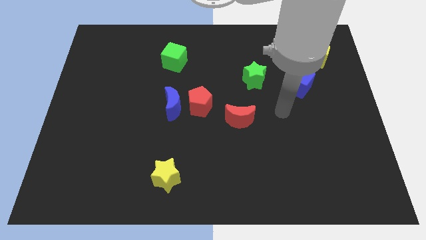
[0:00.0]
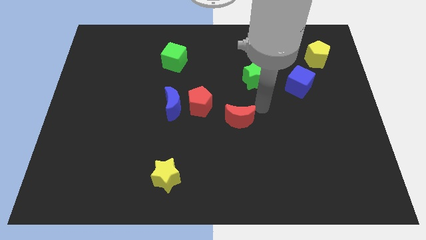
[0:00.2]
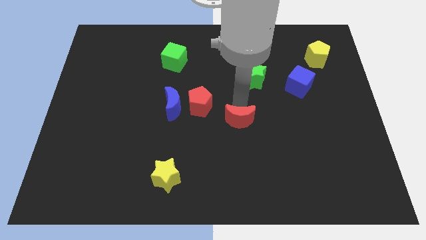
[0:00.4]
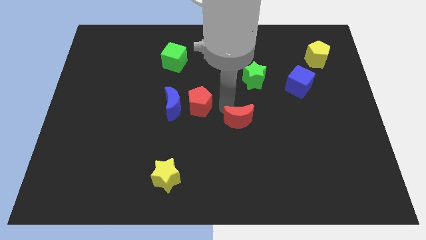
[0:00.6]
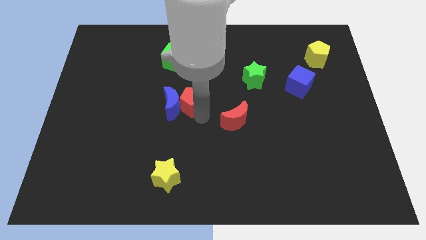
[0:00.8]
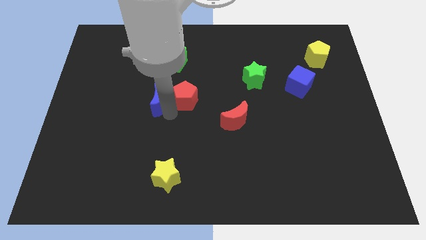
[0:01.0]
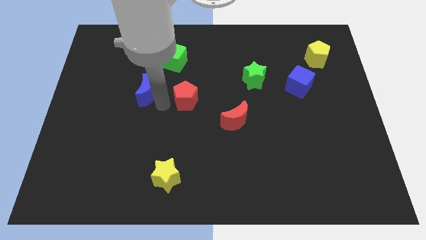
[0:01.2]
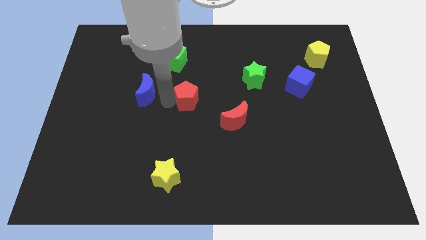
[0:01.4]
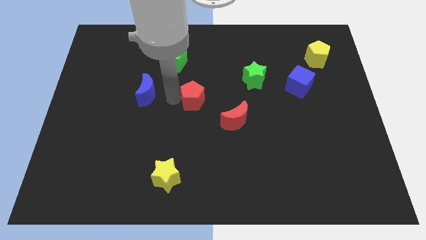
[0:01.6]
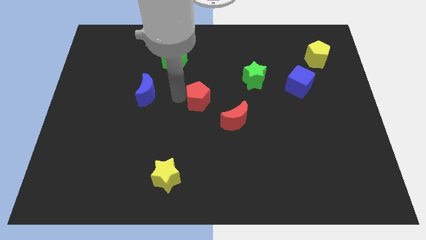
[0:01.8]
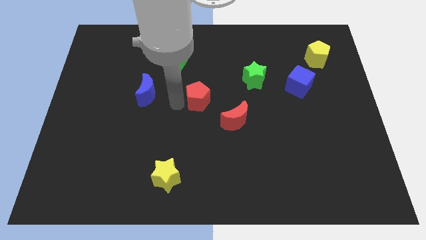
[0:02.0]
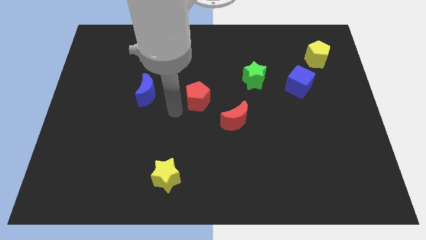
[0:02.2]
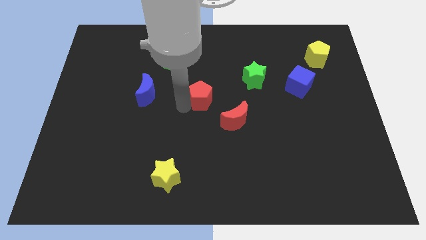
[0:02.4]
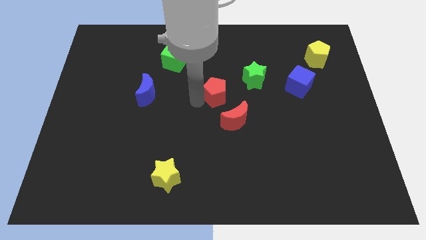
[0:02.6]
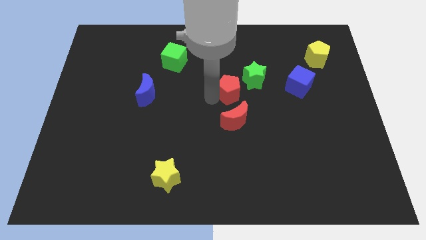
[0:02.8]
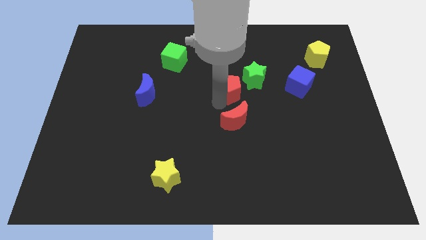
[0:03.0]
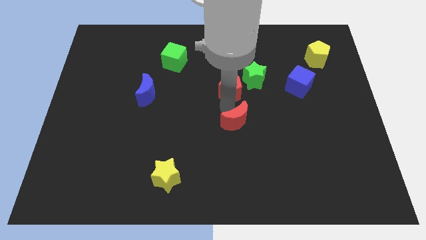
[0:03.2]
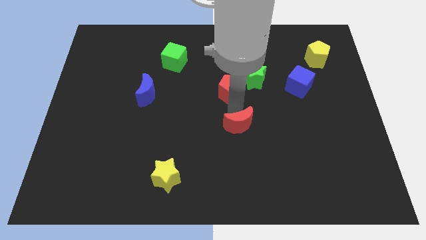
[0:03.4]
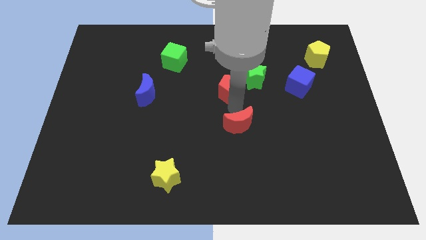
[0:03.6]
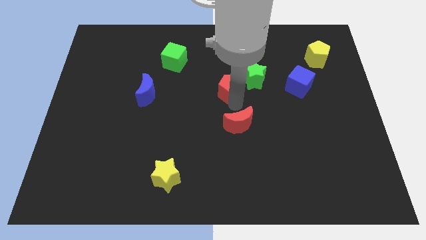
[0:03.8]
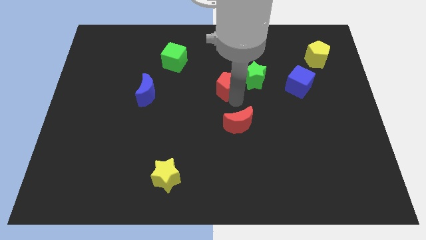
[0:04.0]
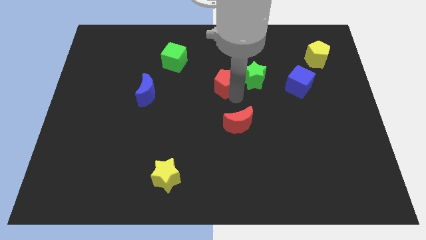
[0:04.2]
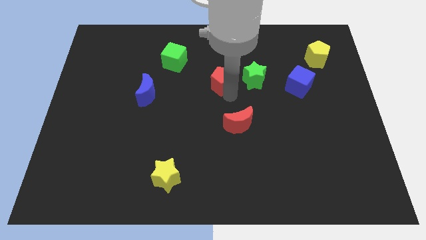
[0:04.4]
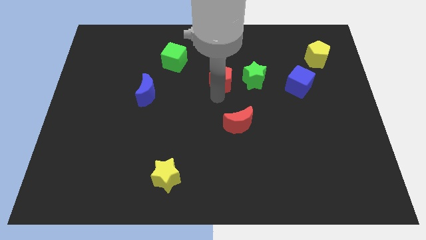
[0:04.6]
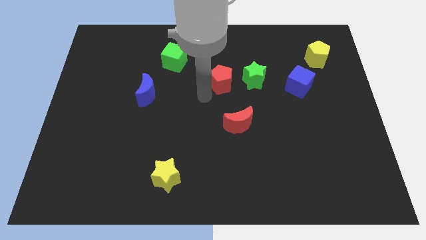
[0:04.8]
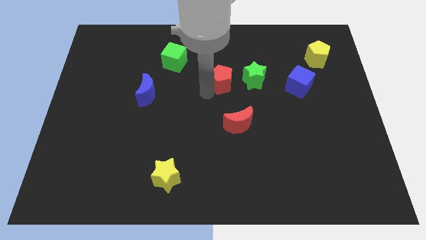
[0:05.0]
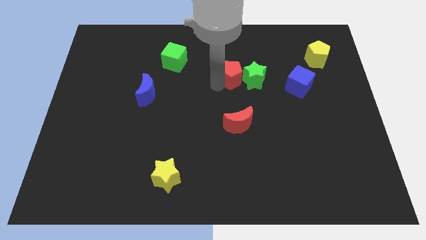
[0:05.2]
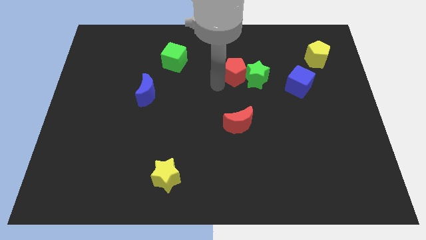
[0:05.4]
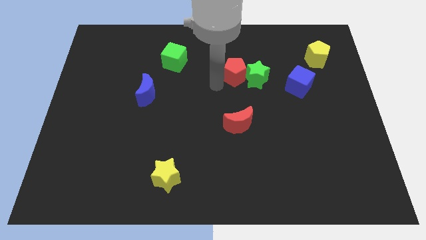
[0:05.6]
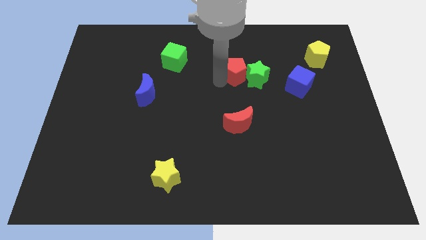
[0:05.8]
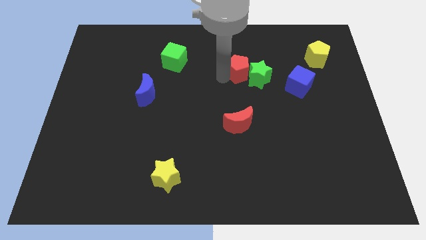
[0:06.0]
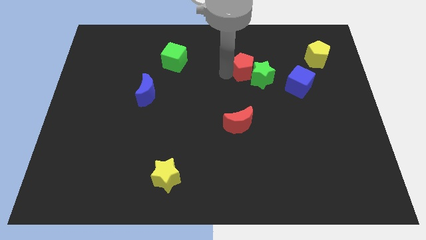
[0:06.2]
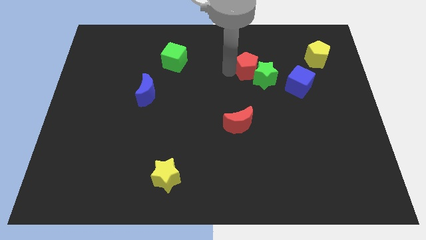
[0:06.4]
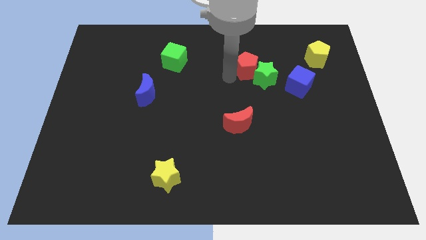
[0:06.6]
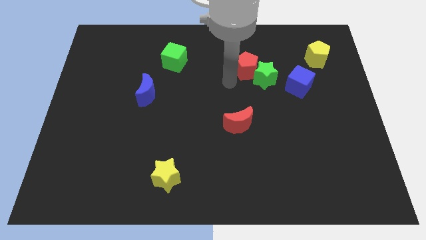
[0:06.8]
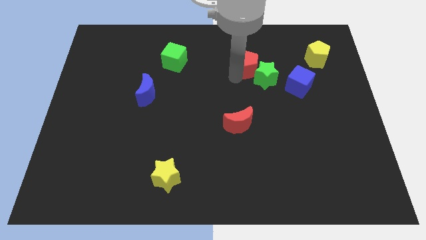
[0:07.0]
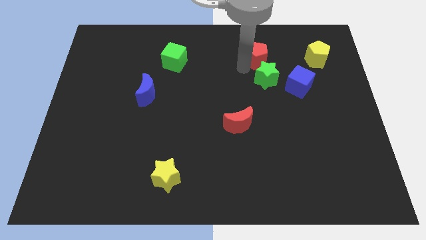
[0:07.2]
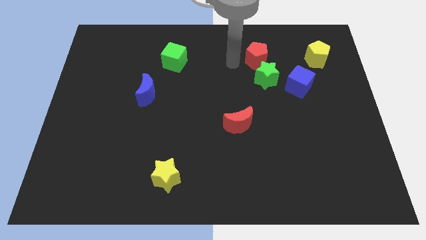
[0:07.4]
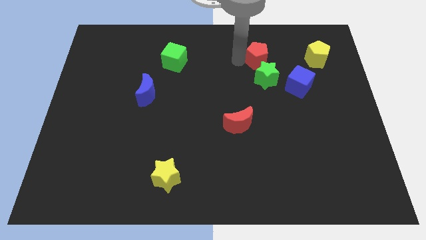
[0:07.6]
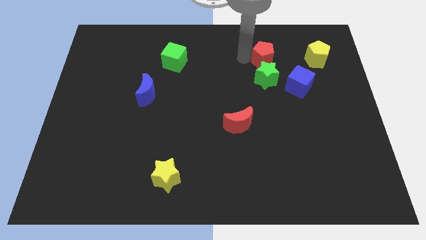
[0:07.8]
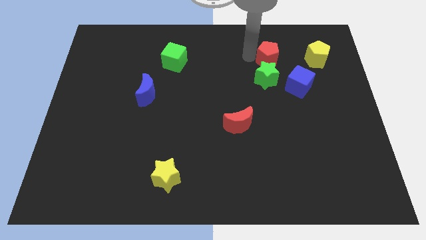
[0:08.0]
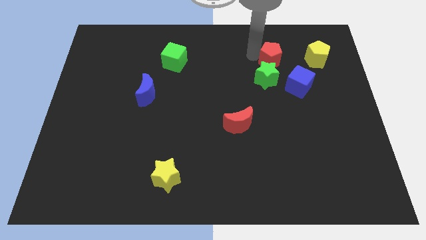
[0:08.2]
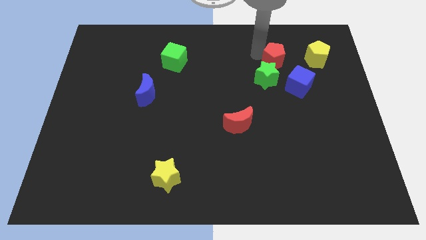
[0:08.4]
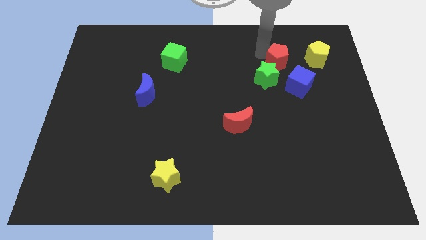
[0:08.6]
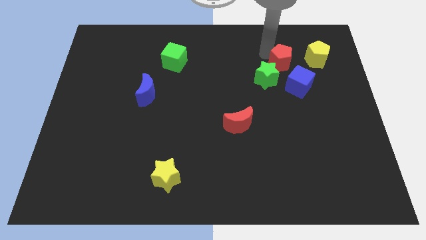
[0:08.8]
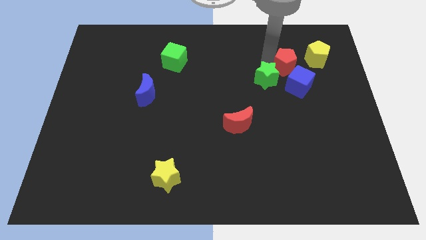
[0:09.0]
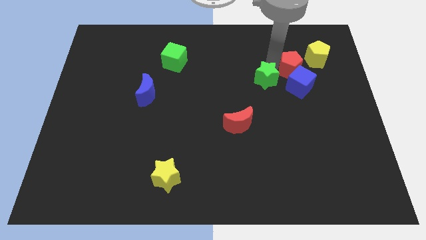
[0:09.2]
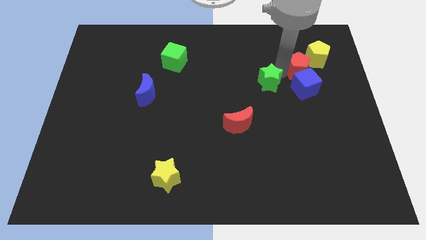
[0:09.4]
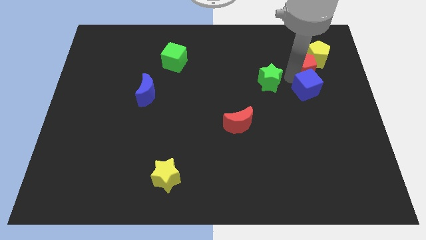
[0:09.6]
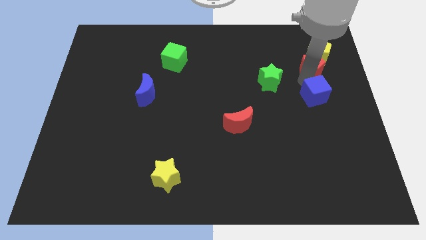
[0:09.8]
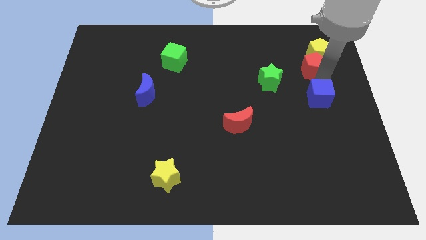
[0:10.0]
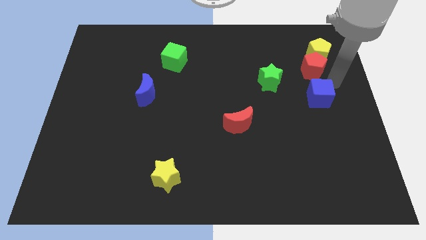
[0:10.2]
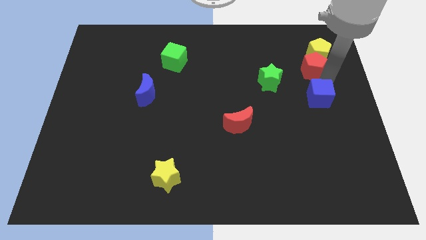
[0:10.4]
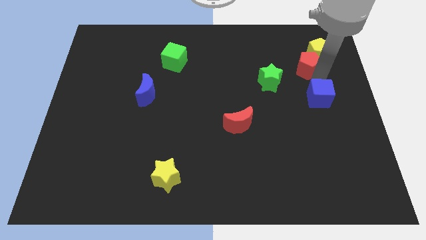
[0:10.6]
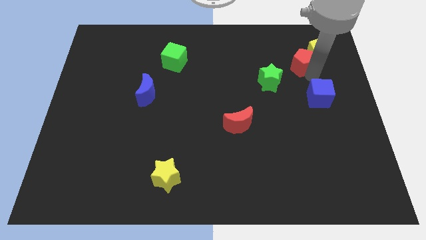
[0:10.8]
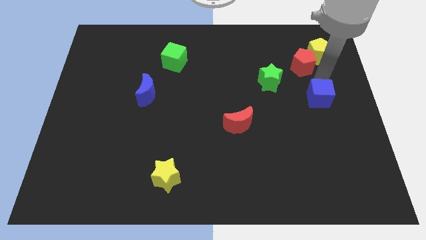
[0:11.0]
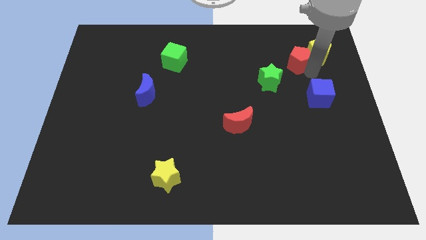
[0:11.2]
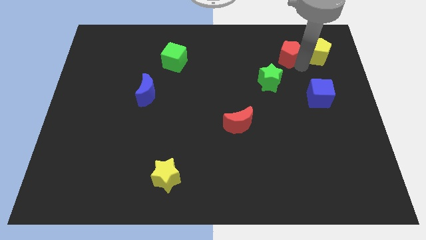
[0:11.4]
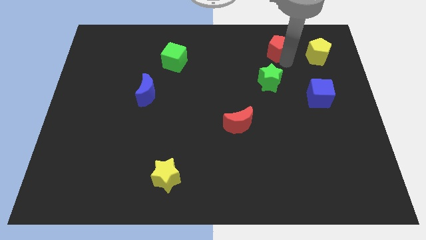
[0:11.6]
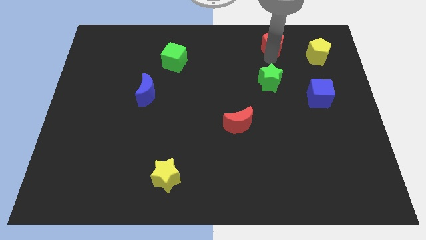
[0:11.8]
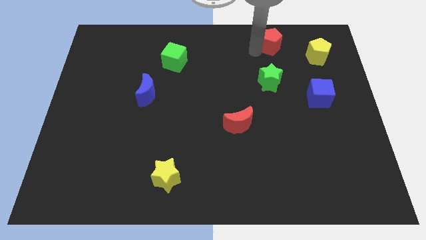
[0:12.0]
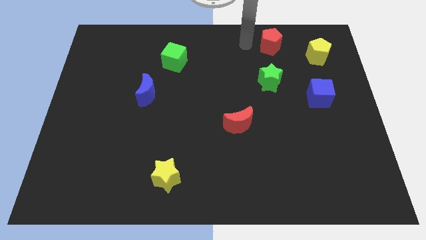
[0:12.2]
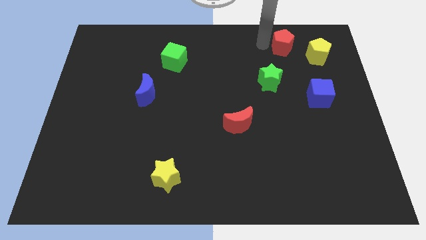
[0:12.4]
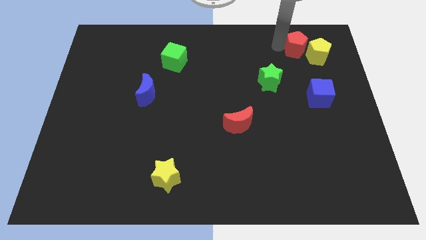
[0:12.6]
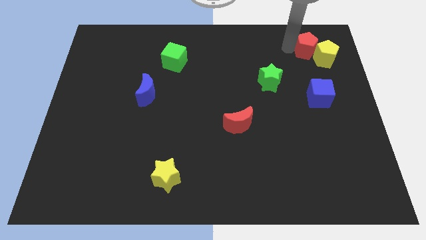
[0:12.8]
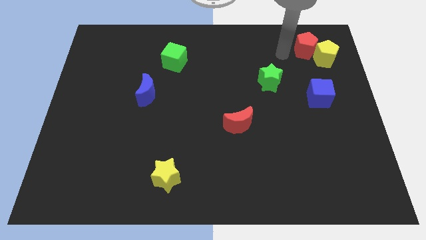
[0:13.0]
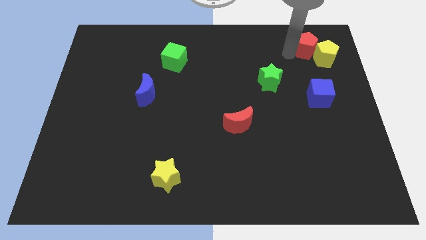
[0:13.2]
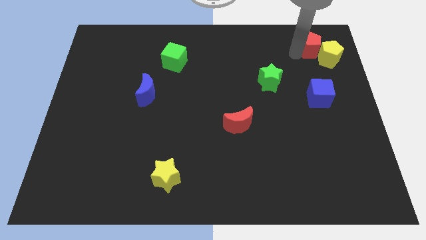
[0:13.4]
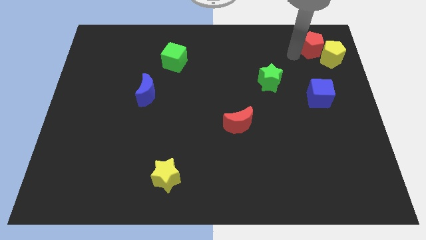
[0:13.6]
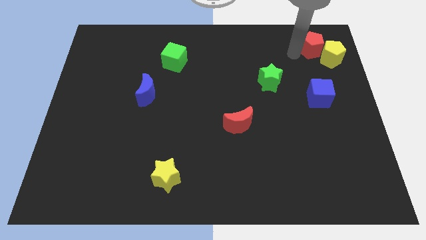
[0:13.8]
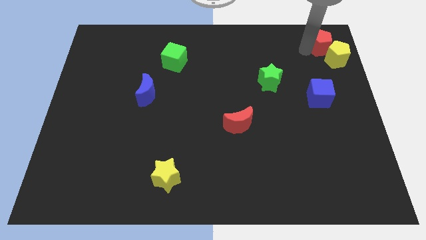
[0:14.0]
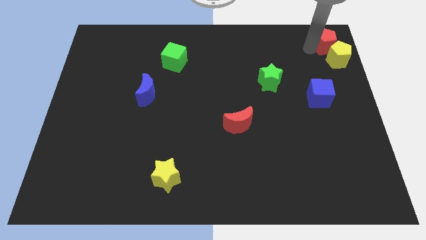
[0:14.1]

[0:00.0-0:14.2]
push the red pentagon to the upper right corner
